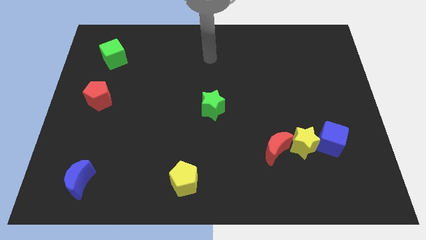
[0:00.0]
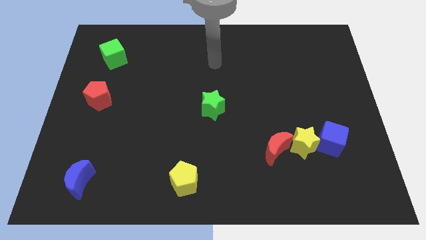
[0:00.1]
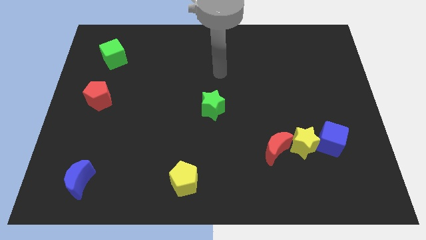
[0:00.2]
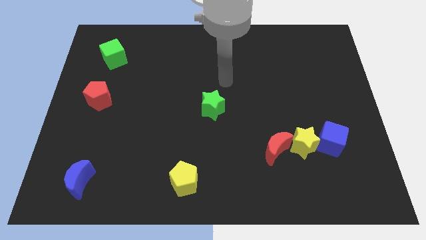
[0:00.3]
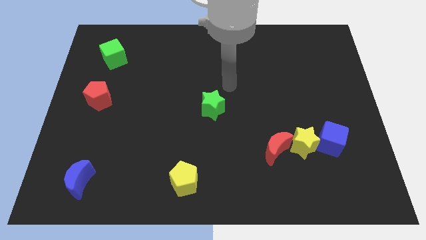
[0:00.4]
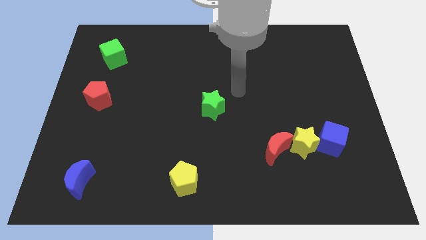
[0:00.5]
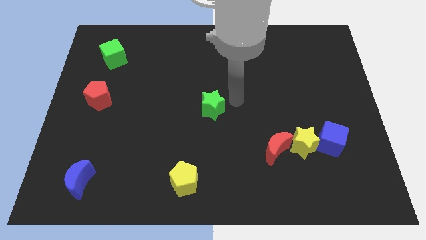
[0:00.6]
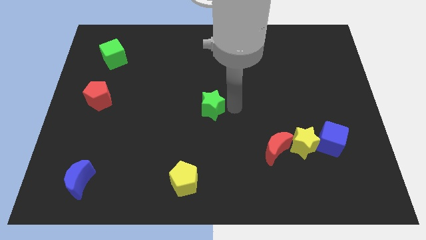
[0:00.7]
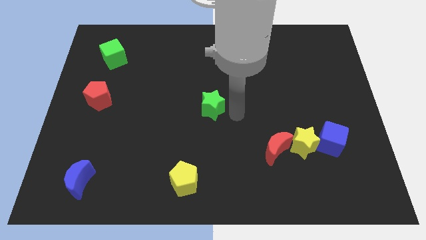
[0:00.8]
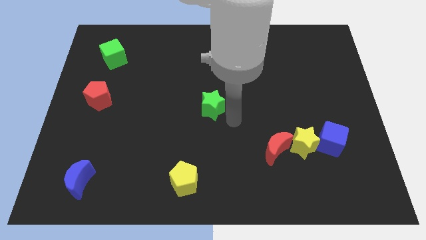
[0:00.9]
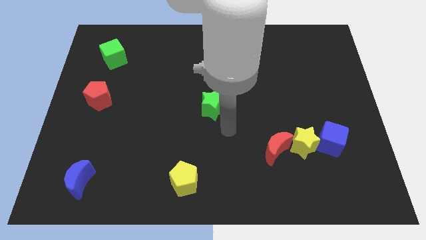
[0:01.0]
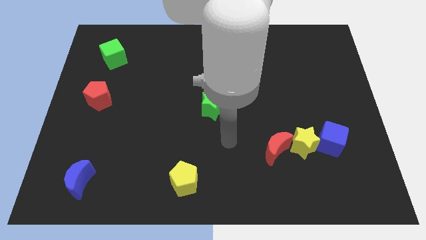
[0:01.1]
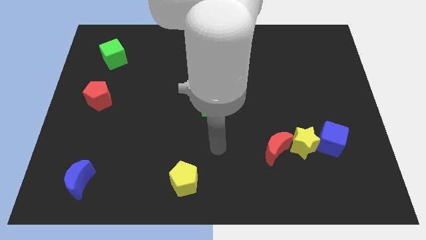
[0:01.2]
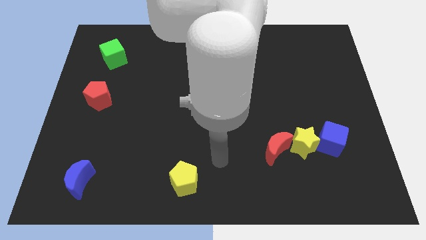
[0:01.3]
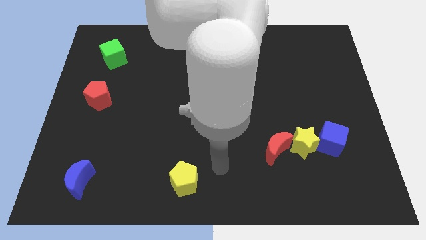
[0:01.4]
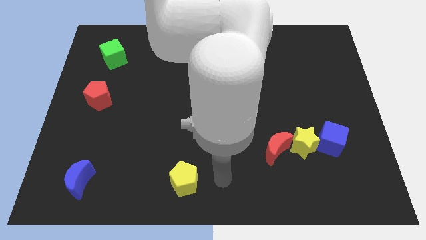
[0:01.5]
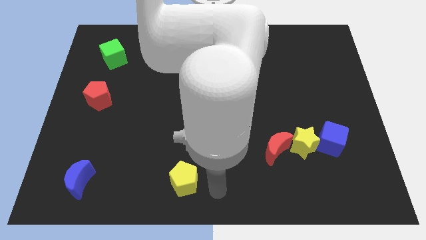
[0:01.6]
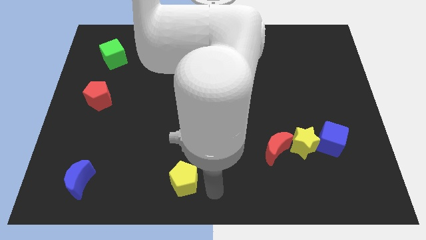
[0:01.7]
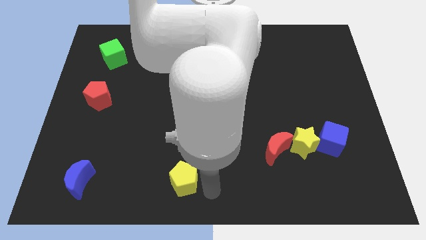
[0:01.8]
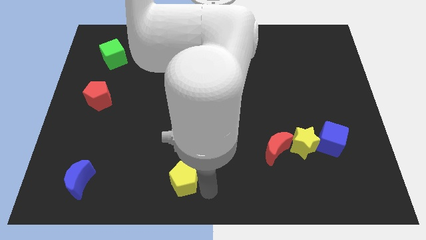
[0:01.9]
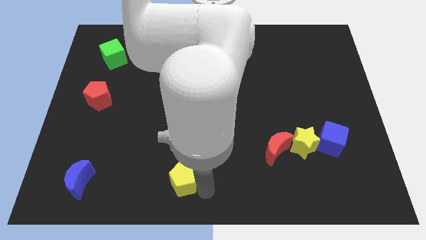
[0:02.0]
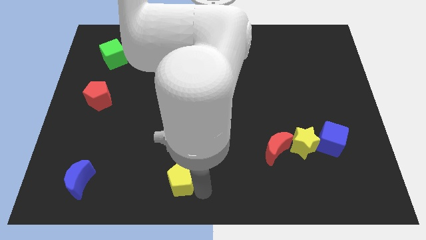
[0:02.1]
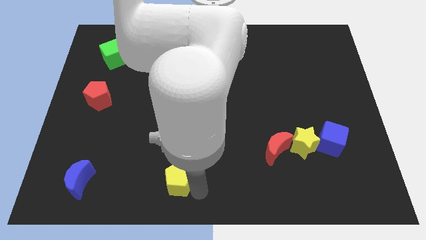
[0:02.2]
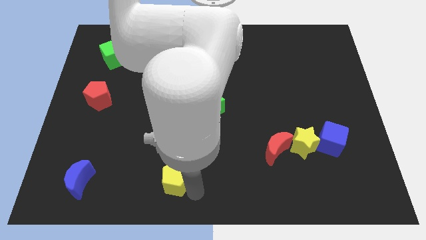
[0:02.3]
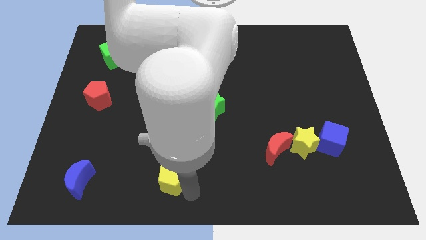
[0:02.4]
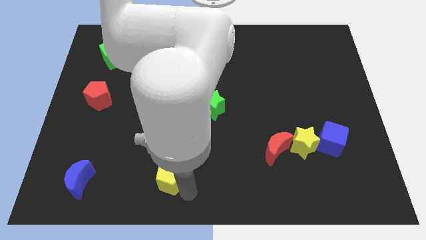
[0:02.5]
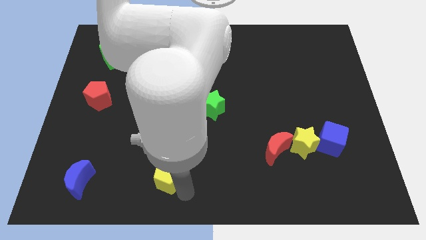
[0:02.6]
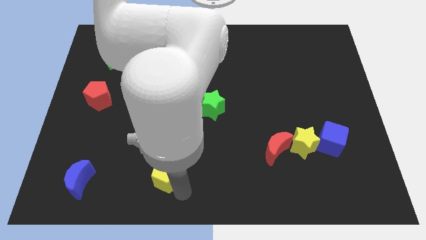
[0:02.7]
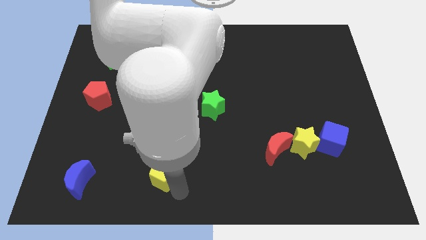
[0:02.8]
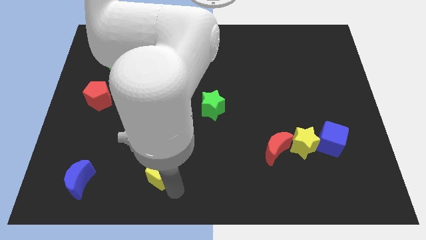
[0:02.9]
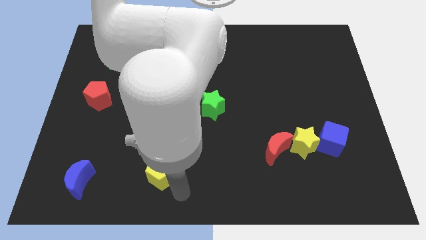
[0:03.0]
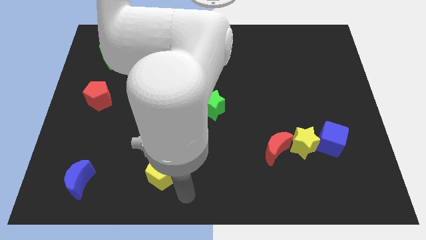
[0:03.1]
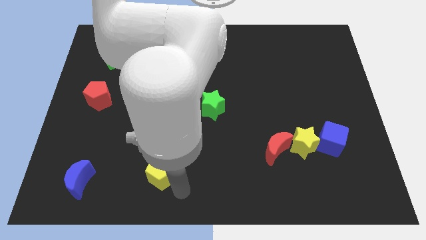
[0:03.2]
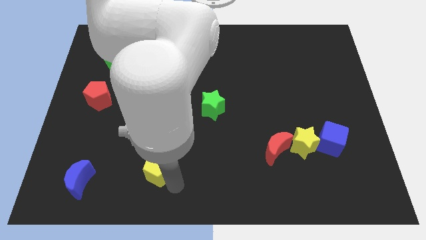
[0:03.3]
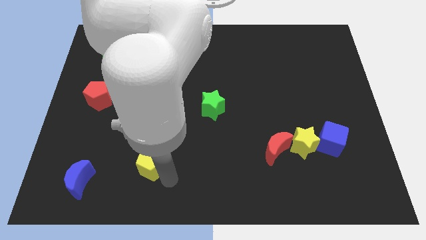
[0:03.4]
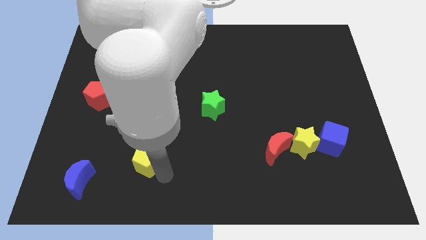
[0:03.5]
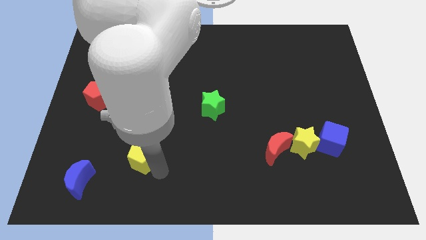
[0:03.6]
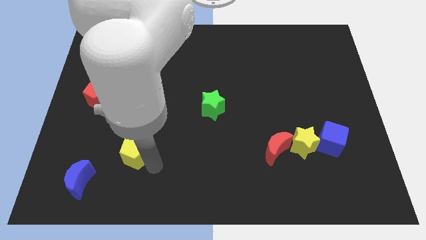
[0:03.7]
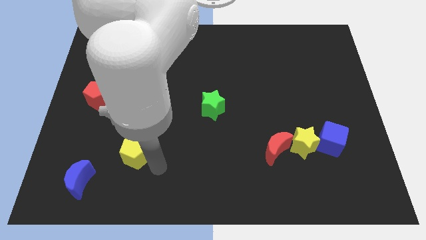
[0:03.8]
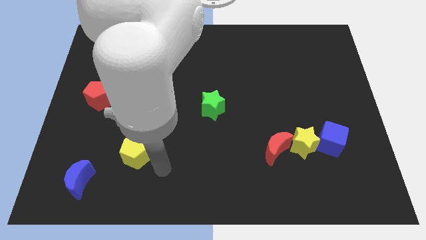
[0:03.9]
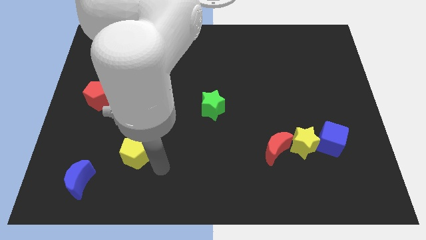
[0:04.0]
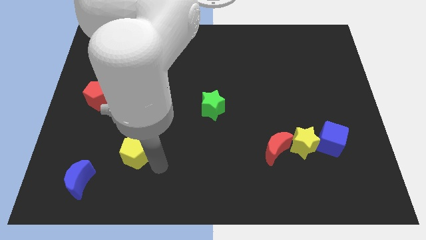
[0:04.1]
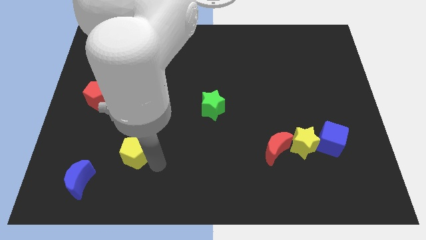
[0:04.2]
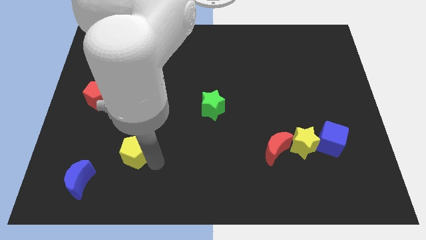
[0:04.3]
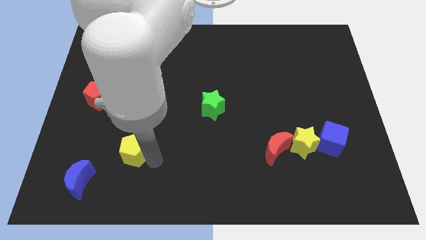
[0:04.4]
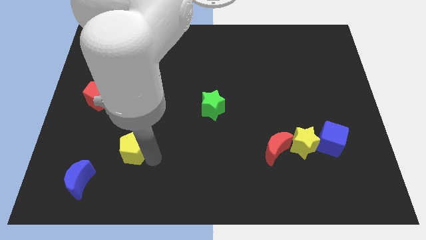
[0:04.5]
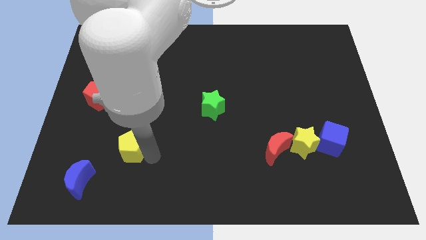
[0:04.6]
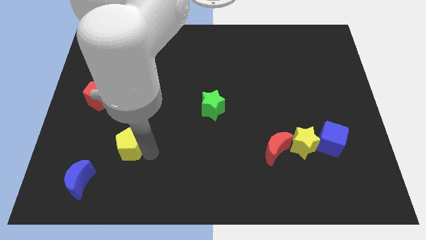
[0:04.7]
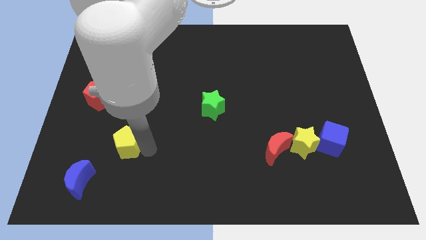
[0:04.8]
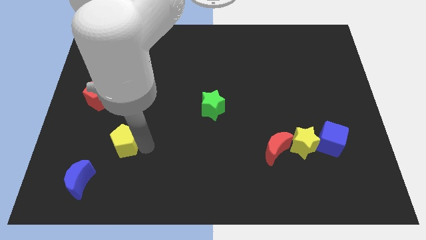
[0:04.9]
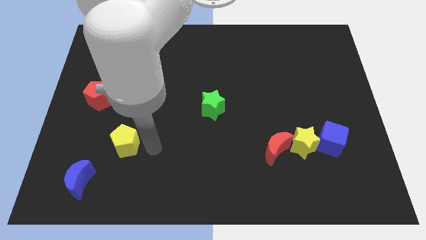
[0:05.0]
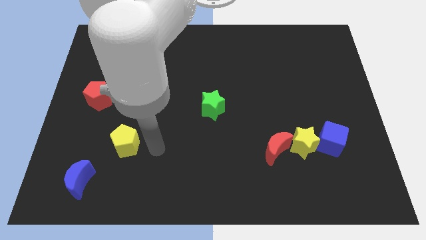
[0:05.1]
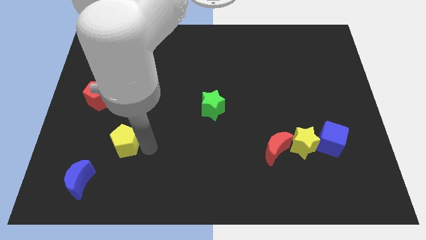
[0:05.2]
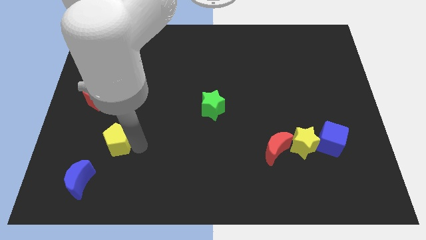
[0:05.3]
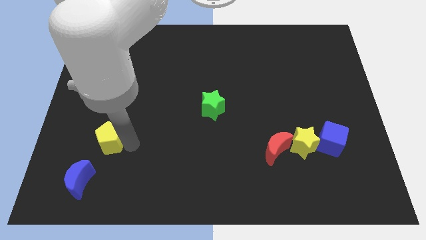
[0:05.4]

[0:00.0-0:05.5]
put the yellow pentagon to the top of the blue moon

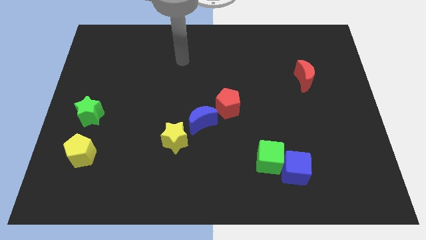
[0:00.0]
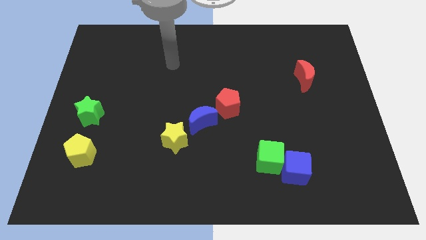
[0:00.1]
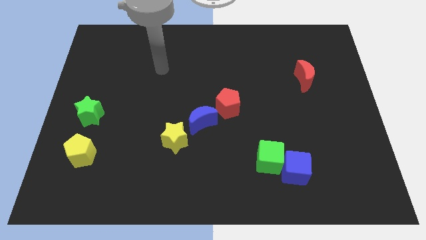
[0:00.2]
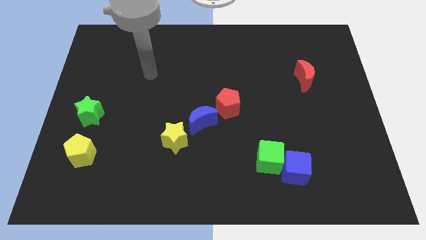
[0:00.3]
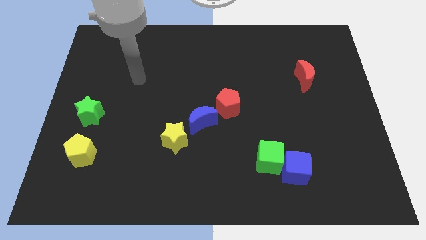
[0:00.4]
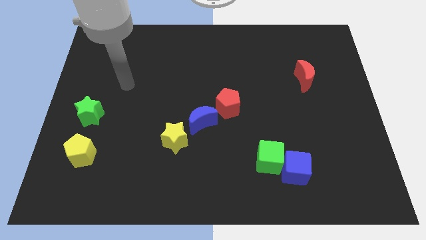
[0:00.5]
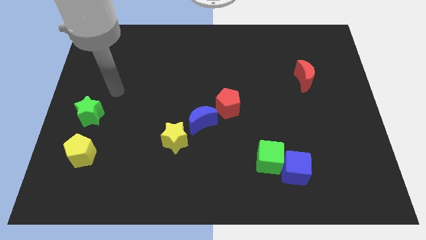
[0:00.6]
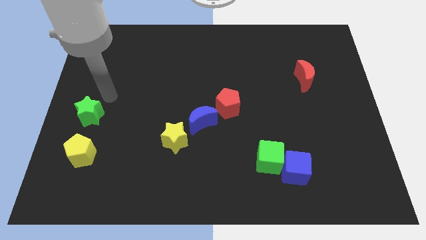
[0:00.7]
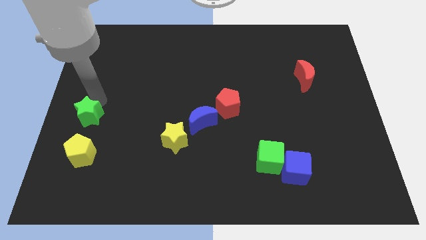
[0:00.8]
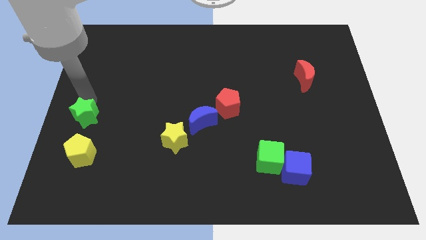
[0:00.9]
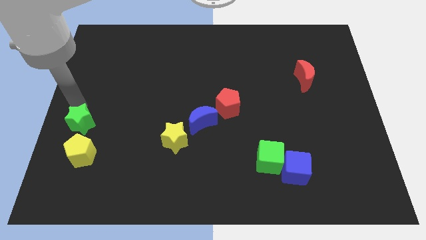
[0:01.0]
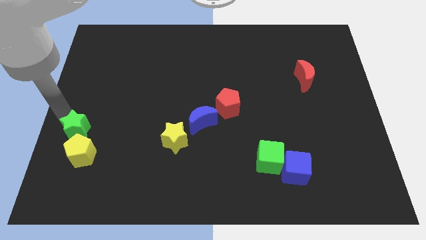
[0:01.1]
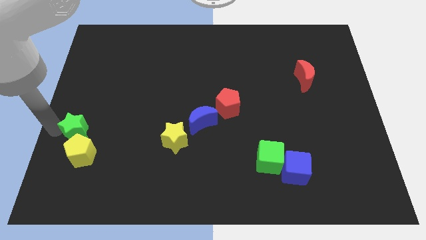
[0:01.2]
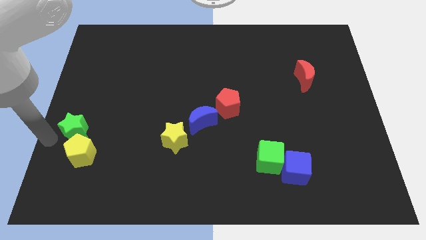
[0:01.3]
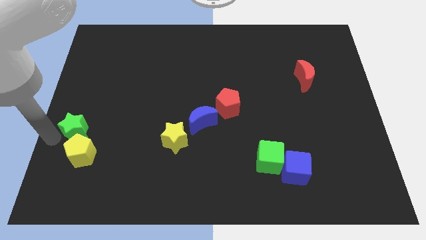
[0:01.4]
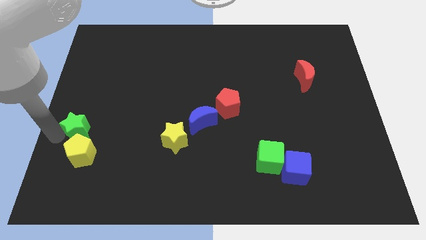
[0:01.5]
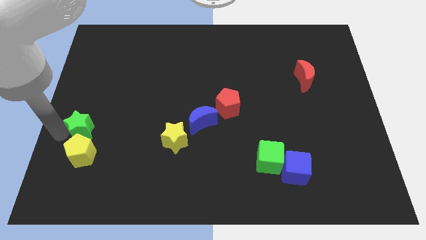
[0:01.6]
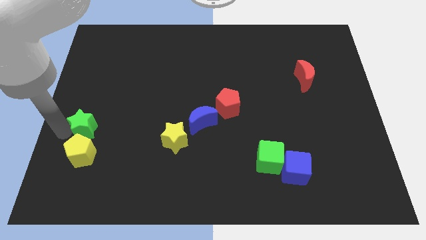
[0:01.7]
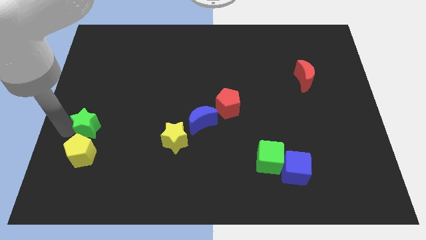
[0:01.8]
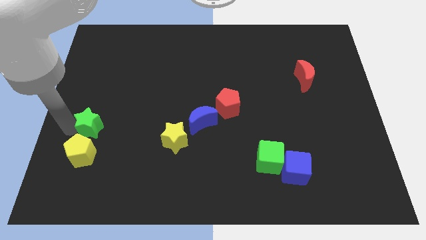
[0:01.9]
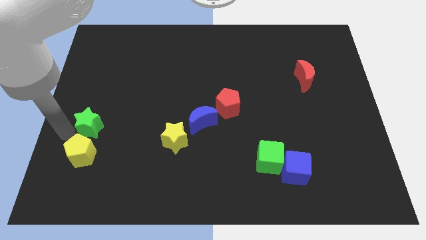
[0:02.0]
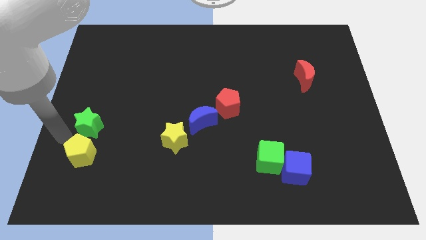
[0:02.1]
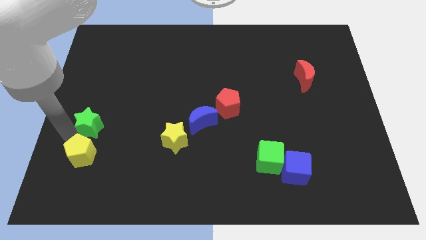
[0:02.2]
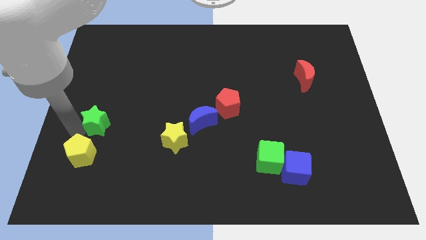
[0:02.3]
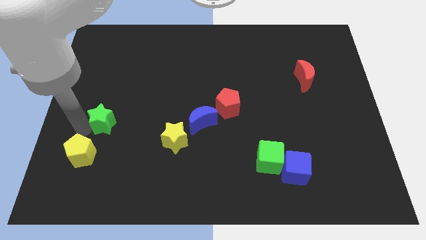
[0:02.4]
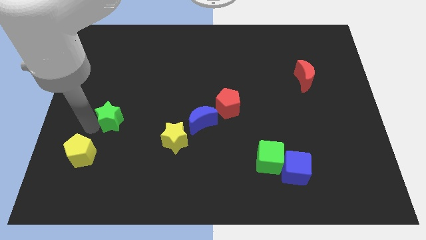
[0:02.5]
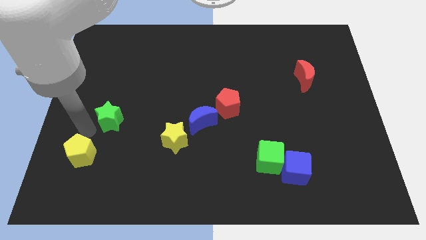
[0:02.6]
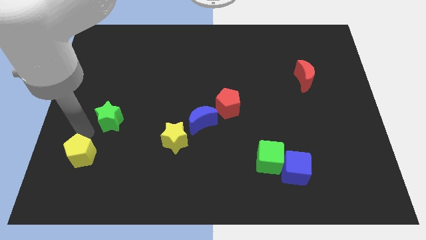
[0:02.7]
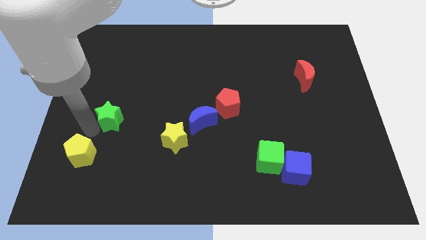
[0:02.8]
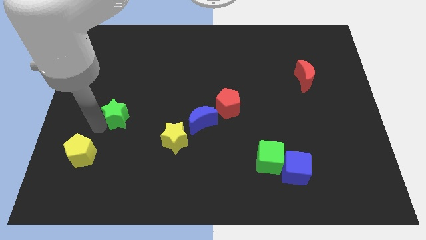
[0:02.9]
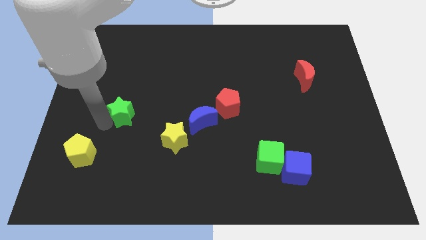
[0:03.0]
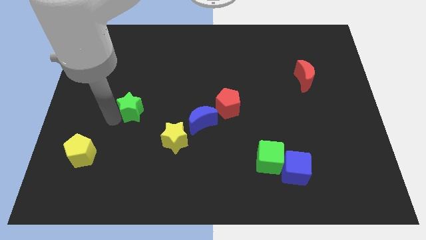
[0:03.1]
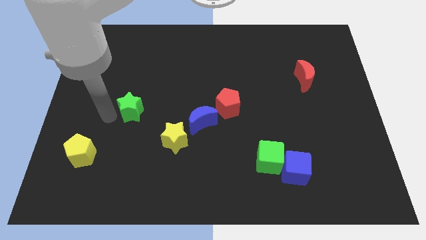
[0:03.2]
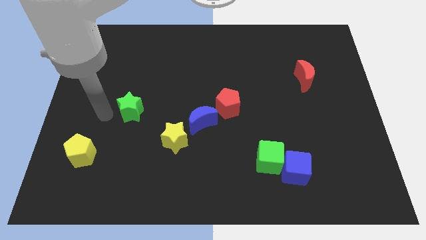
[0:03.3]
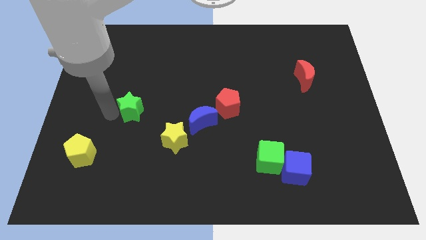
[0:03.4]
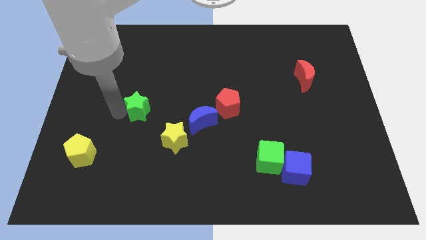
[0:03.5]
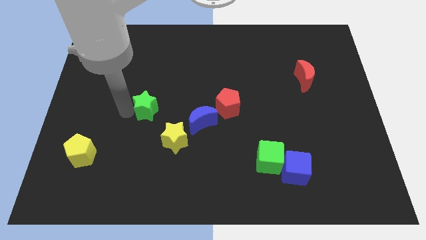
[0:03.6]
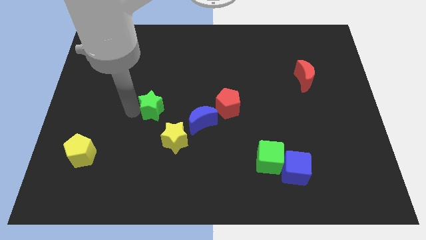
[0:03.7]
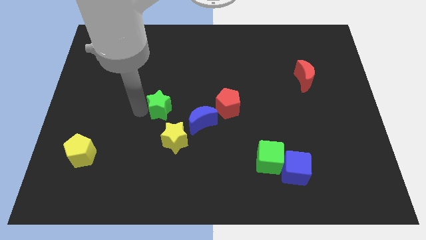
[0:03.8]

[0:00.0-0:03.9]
slide the green star to the top of the yellow star
